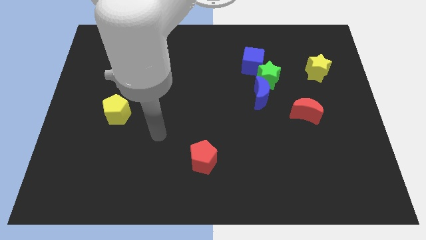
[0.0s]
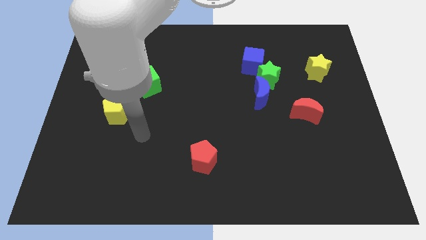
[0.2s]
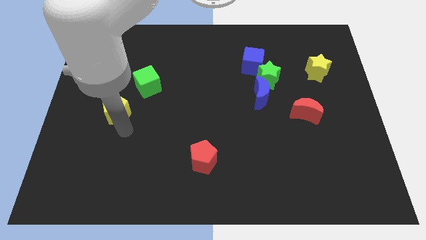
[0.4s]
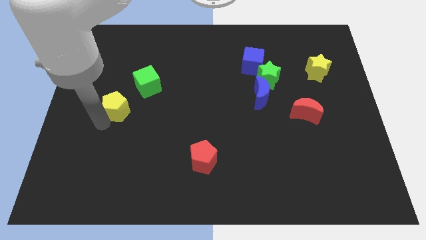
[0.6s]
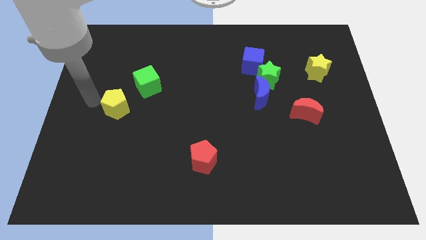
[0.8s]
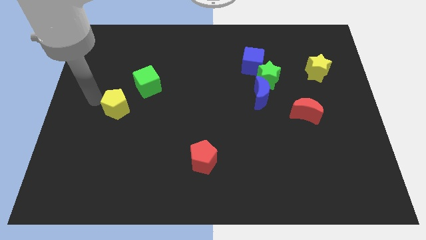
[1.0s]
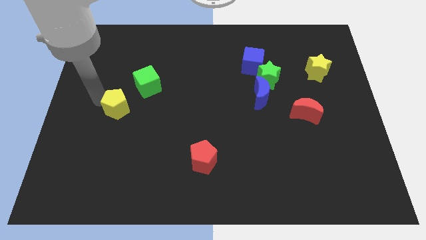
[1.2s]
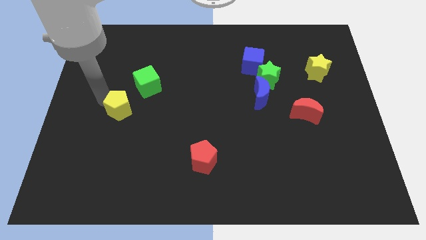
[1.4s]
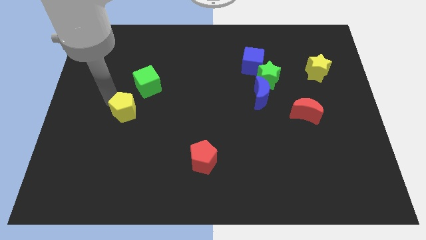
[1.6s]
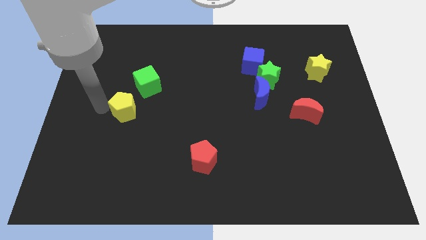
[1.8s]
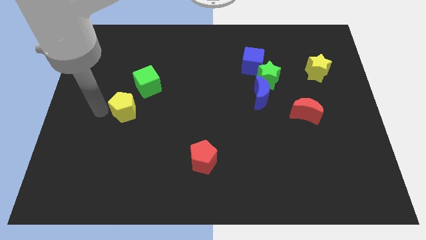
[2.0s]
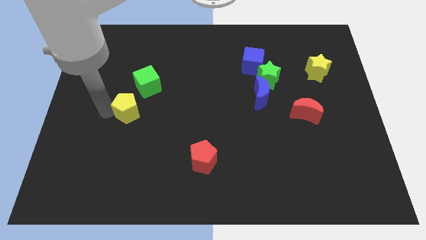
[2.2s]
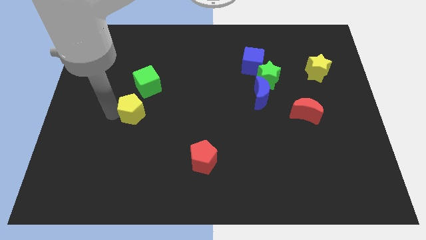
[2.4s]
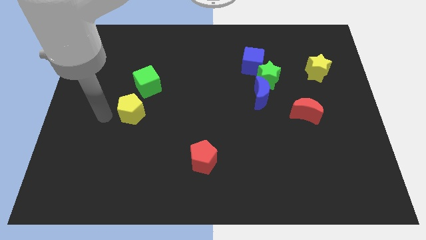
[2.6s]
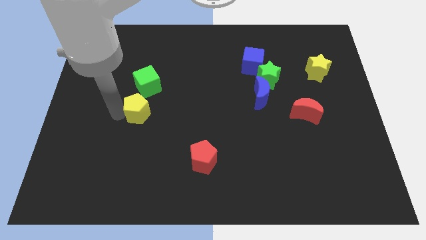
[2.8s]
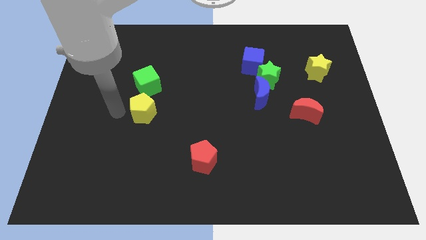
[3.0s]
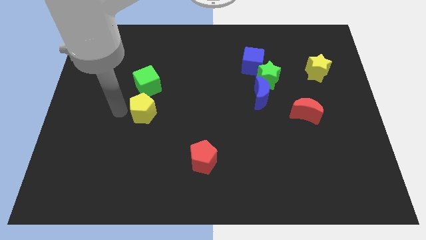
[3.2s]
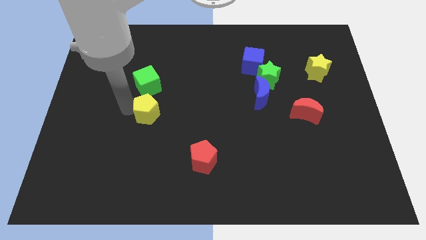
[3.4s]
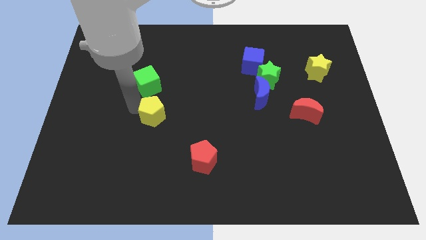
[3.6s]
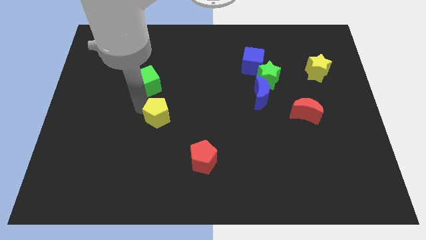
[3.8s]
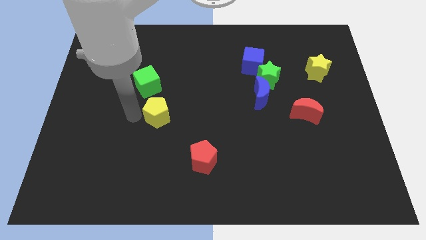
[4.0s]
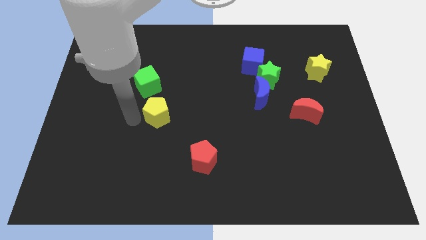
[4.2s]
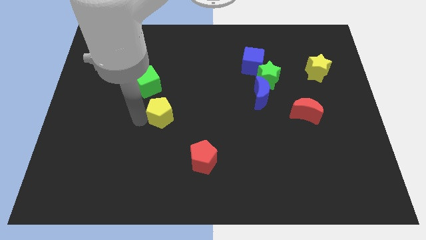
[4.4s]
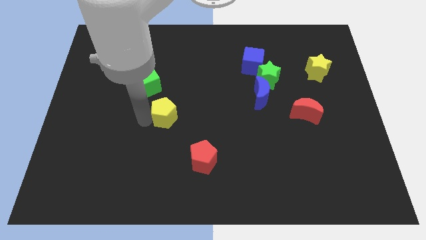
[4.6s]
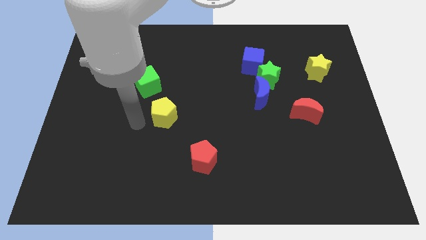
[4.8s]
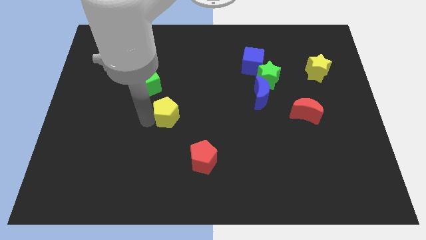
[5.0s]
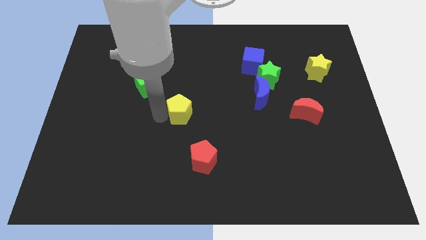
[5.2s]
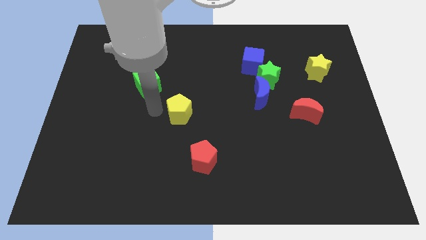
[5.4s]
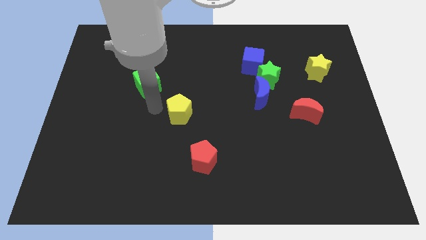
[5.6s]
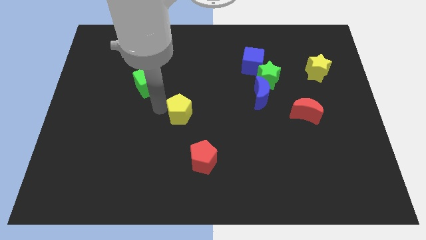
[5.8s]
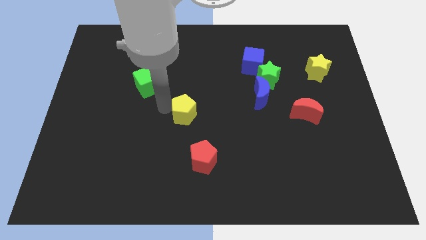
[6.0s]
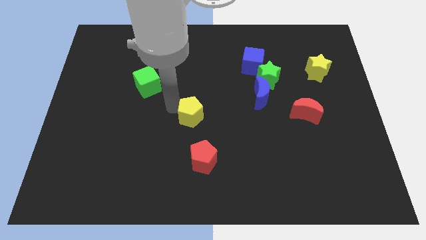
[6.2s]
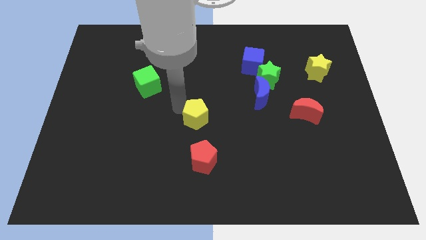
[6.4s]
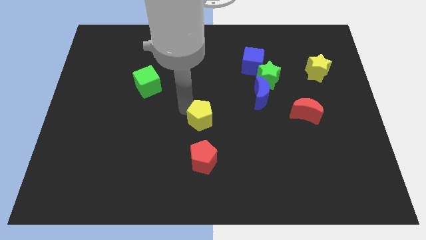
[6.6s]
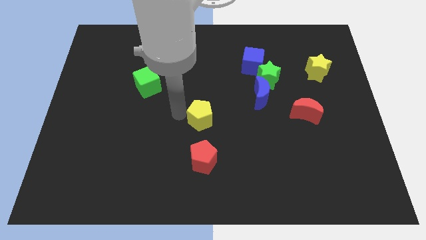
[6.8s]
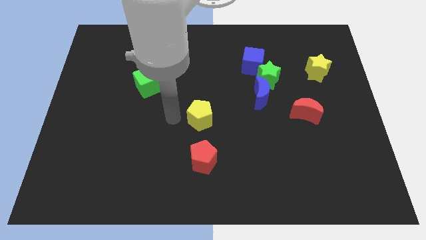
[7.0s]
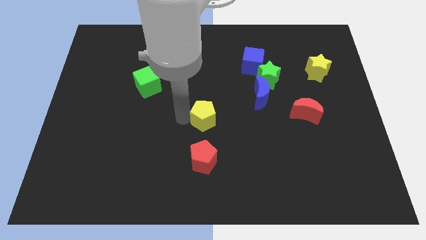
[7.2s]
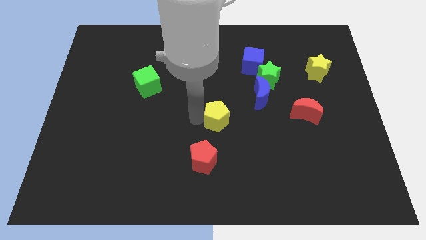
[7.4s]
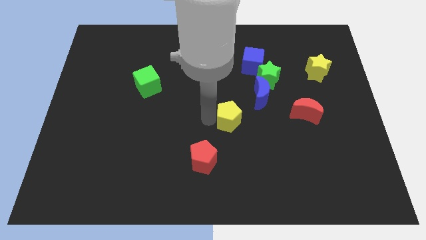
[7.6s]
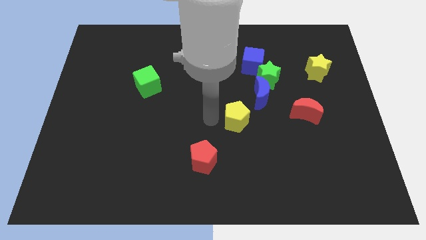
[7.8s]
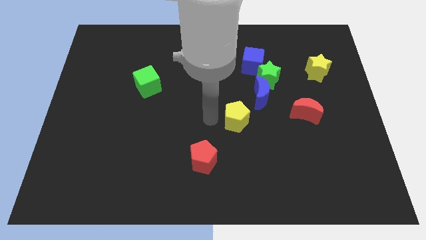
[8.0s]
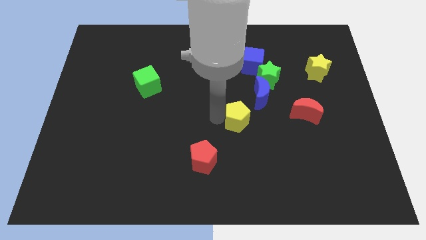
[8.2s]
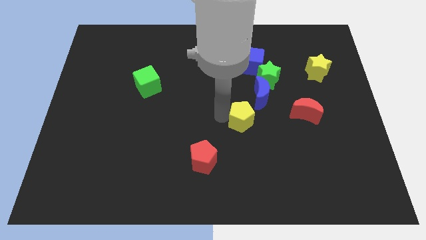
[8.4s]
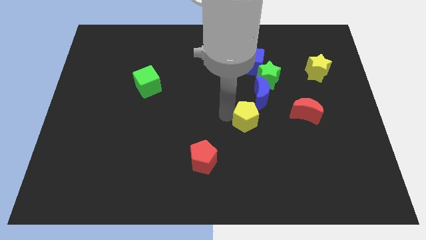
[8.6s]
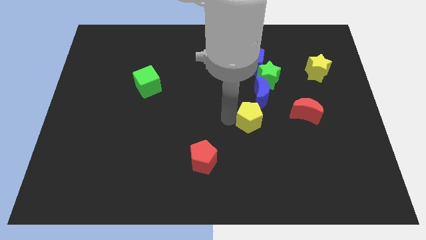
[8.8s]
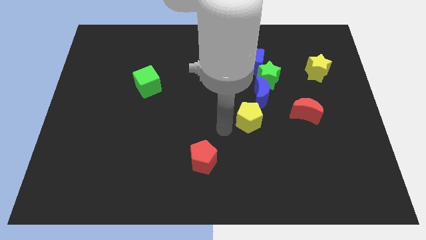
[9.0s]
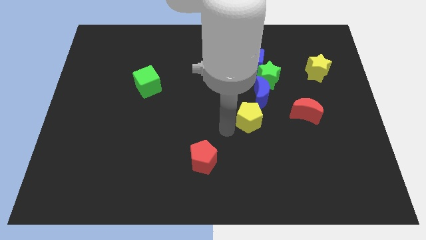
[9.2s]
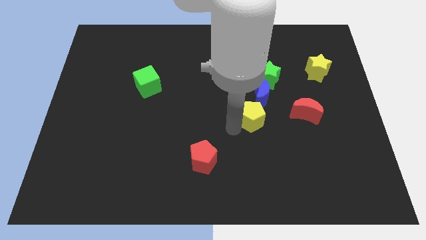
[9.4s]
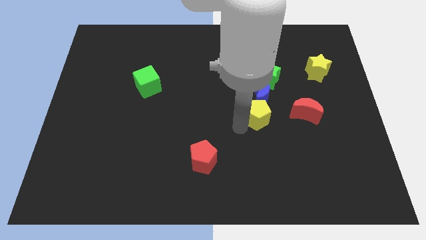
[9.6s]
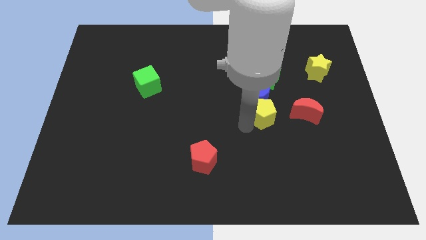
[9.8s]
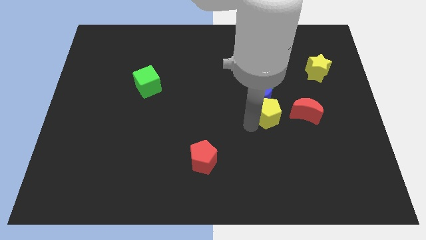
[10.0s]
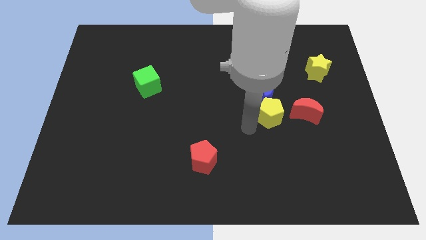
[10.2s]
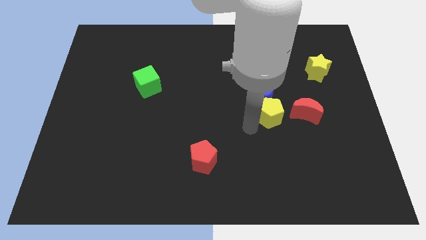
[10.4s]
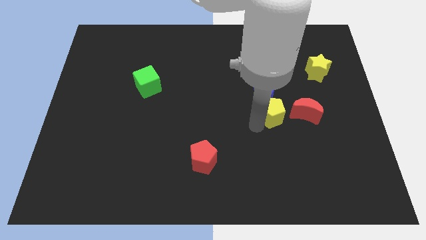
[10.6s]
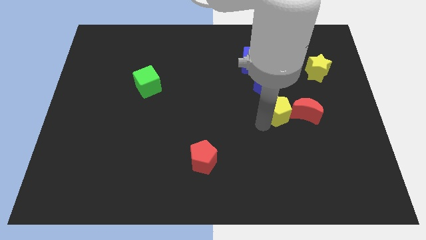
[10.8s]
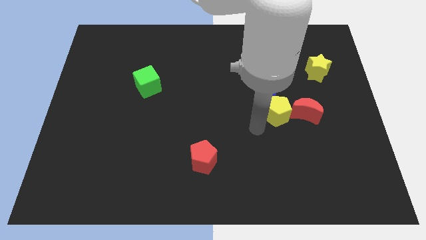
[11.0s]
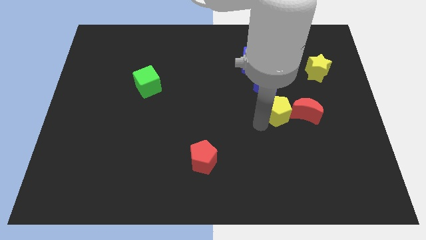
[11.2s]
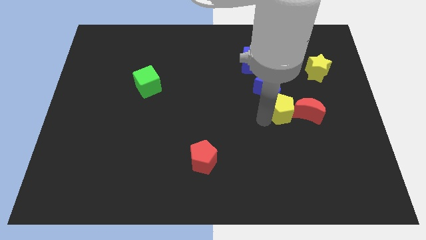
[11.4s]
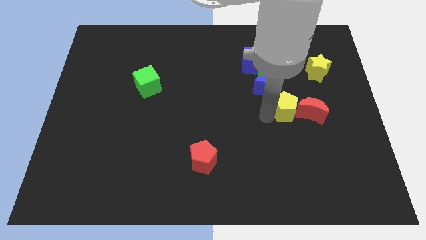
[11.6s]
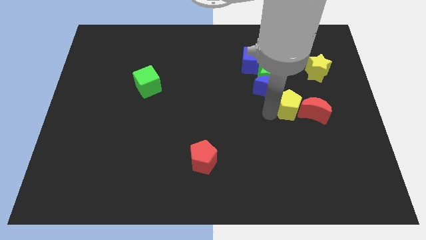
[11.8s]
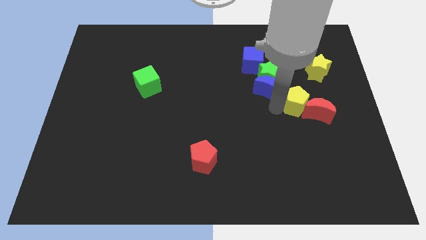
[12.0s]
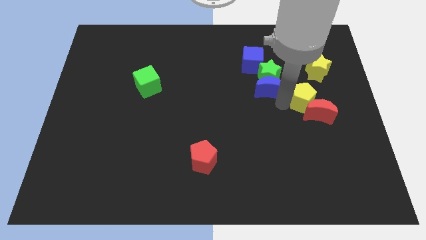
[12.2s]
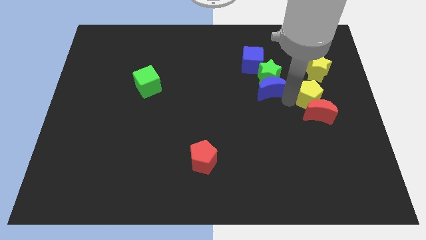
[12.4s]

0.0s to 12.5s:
slide the yellow pentagon diagonally up and to the right of the red moon

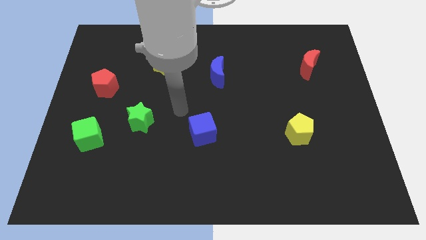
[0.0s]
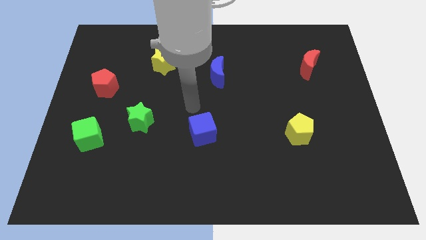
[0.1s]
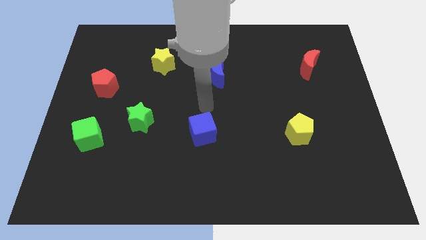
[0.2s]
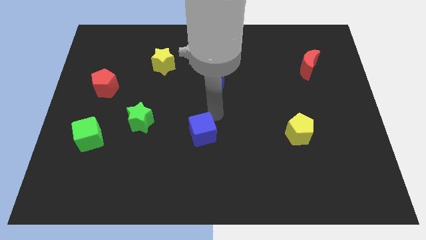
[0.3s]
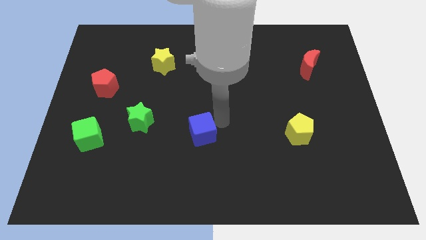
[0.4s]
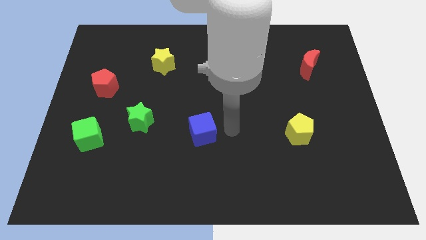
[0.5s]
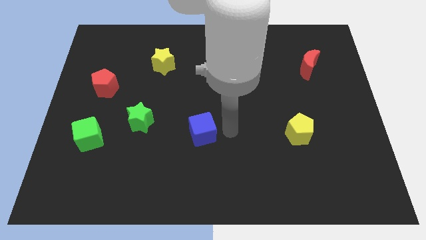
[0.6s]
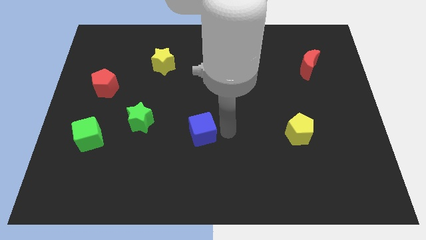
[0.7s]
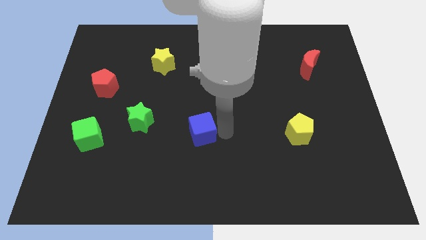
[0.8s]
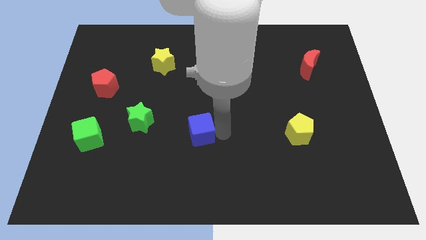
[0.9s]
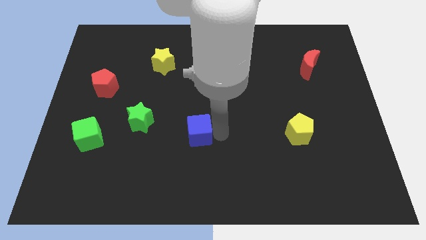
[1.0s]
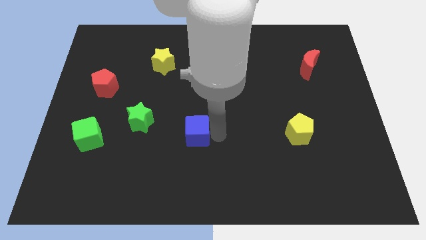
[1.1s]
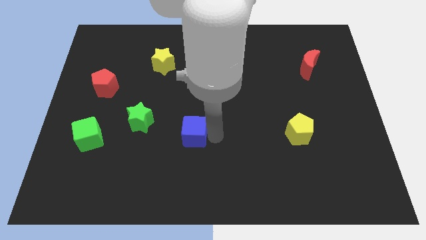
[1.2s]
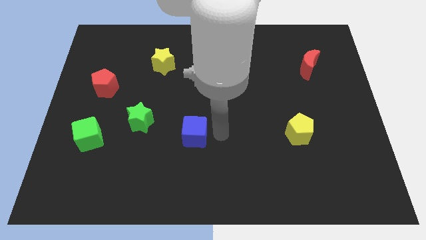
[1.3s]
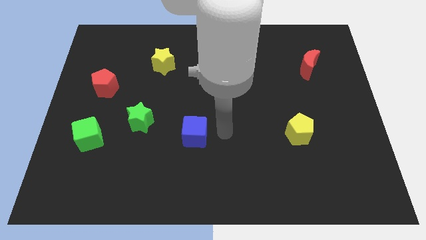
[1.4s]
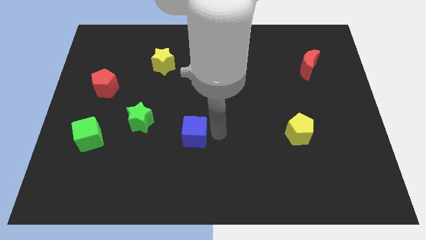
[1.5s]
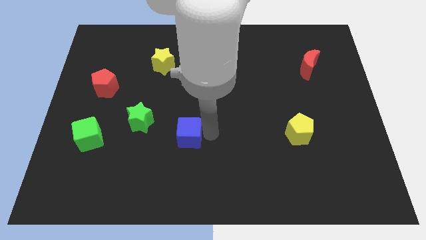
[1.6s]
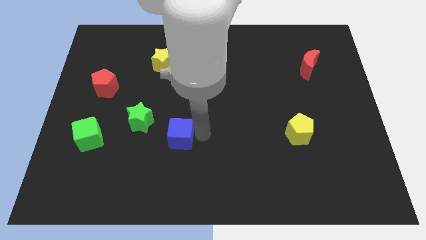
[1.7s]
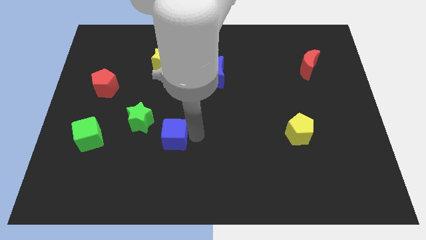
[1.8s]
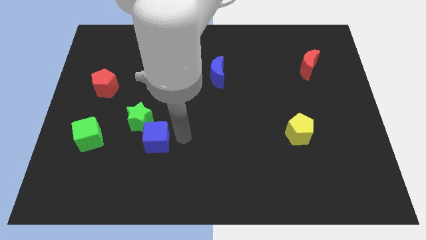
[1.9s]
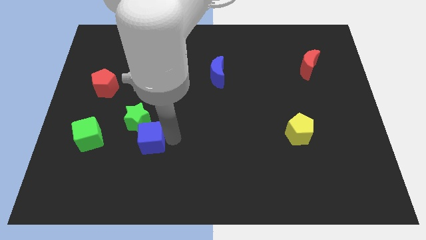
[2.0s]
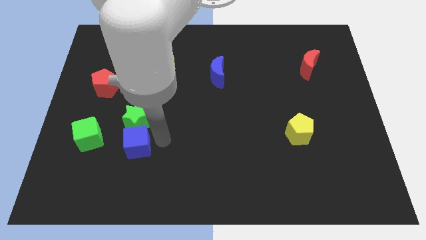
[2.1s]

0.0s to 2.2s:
push the blue cube diagonally down and to the left of the green star
